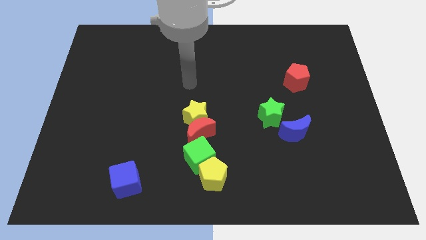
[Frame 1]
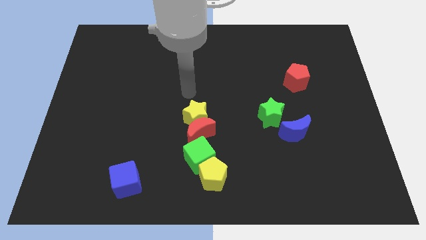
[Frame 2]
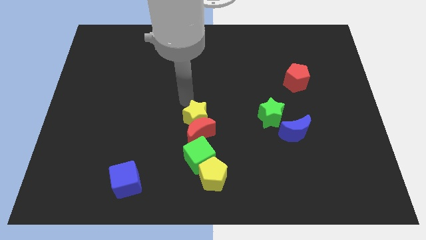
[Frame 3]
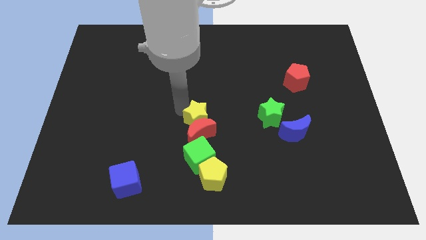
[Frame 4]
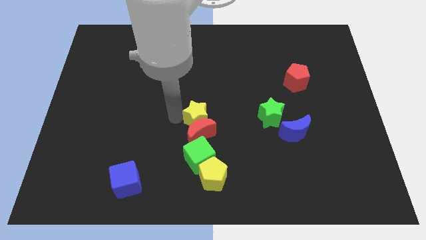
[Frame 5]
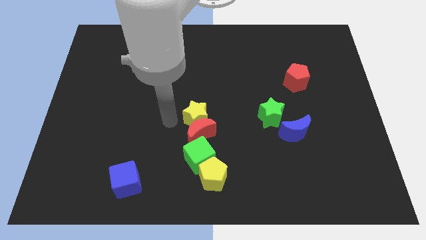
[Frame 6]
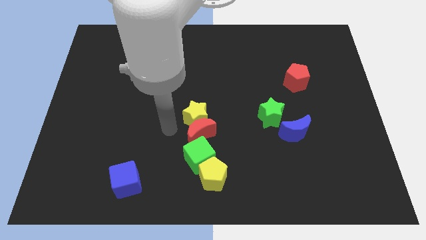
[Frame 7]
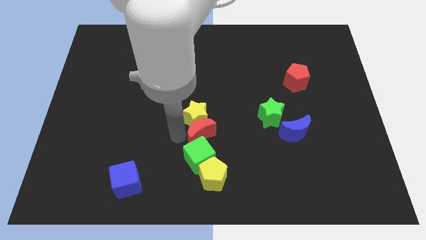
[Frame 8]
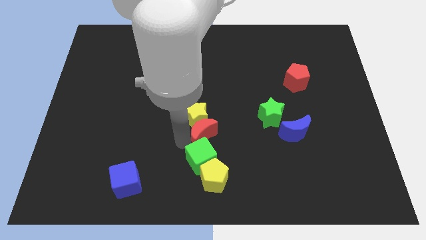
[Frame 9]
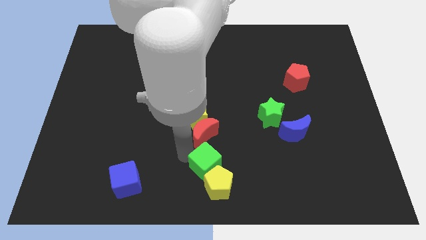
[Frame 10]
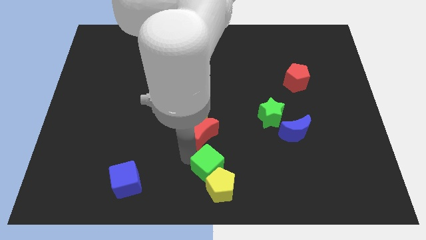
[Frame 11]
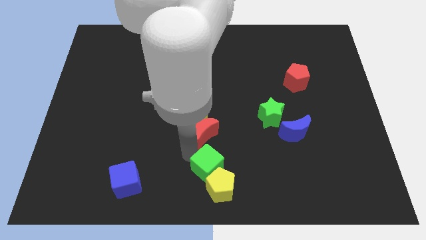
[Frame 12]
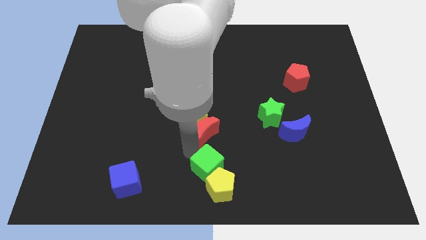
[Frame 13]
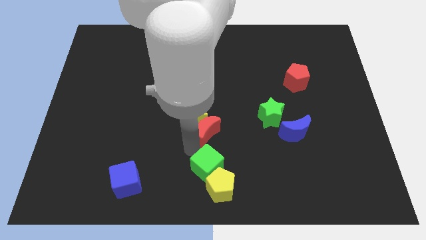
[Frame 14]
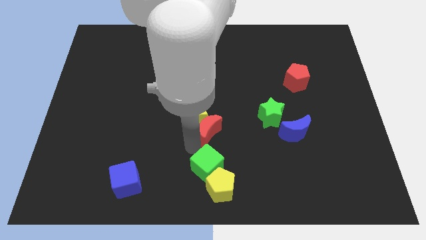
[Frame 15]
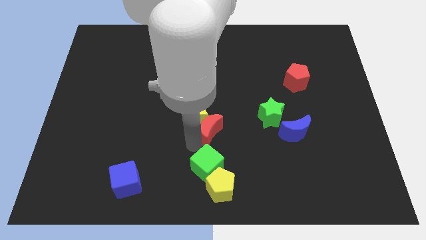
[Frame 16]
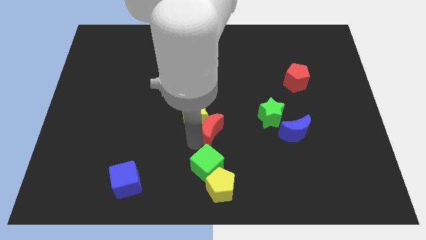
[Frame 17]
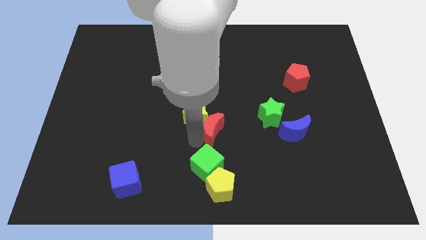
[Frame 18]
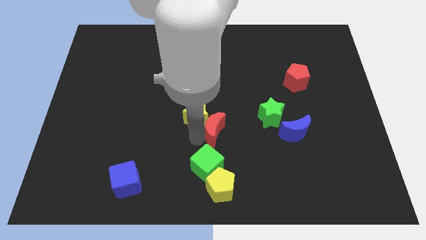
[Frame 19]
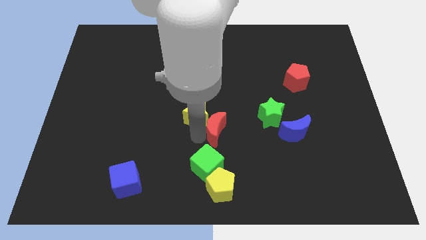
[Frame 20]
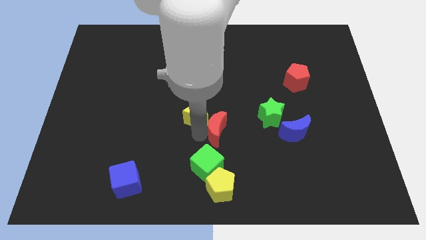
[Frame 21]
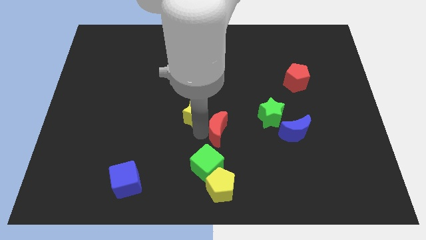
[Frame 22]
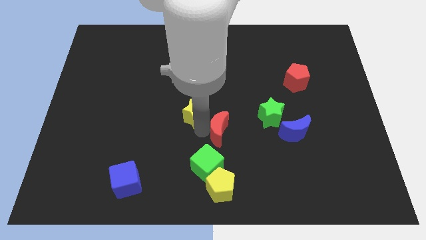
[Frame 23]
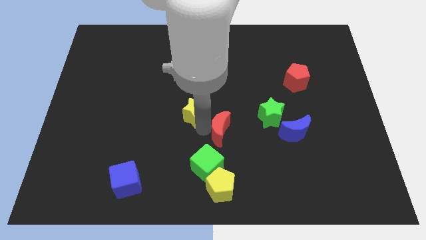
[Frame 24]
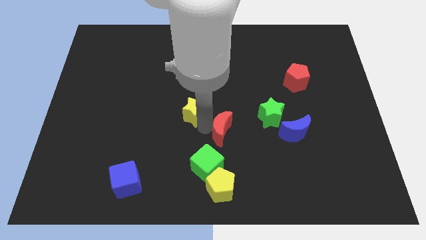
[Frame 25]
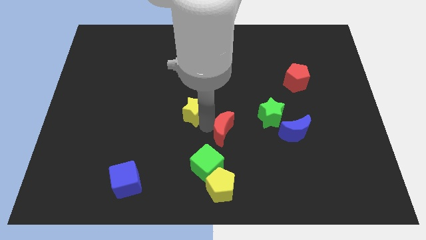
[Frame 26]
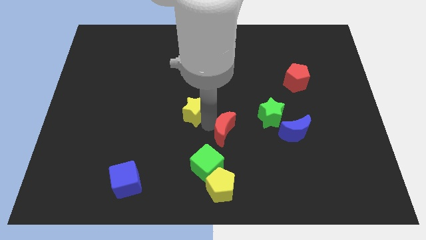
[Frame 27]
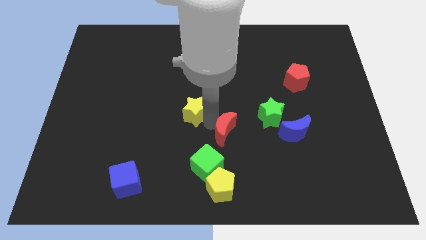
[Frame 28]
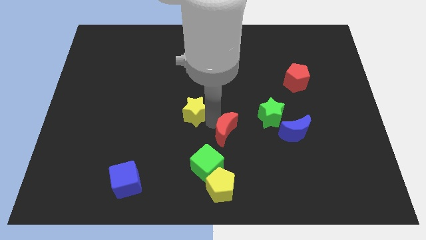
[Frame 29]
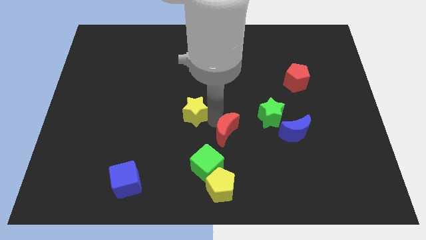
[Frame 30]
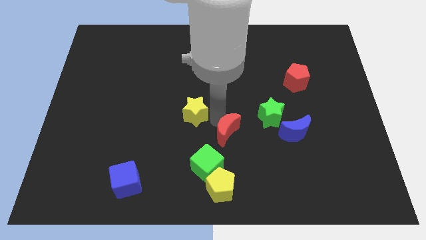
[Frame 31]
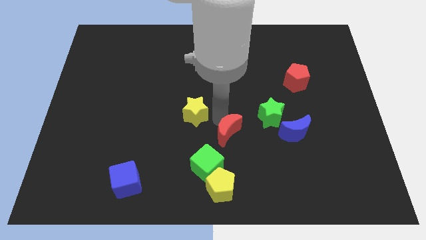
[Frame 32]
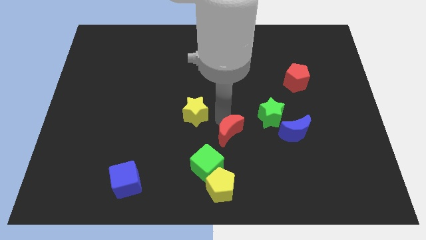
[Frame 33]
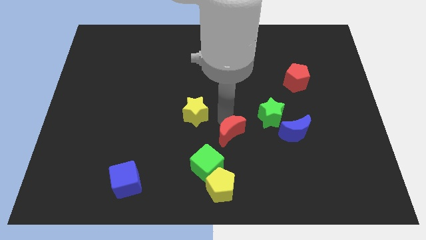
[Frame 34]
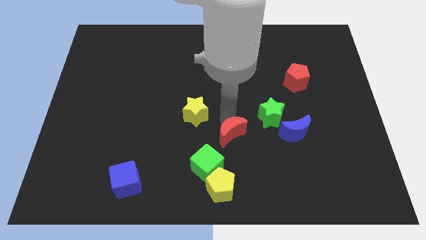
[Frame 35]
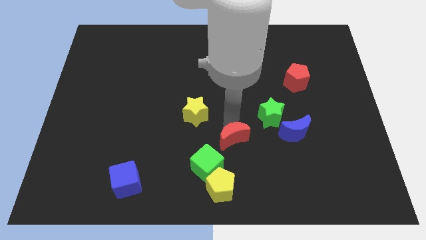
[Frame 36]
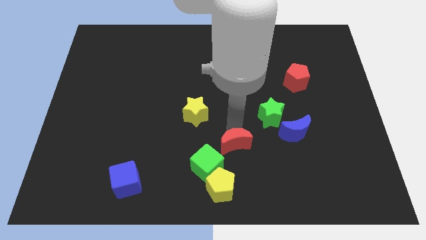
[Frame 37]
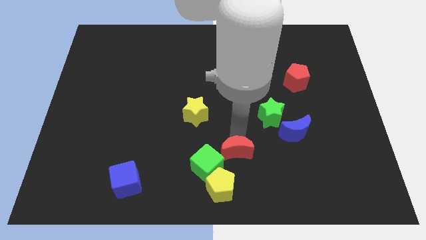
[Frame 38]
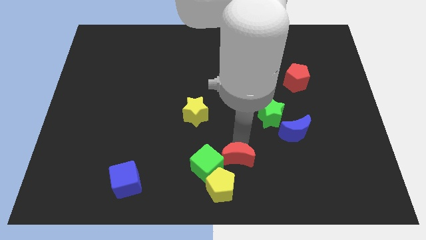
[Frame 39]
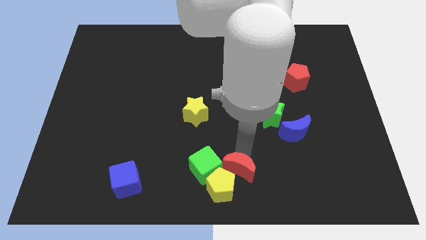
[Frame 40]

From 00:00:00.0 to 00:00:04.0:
move the red moon away from the yellow star and green cube

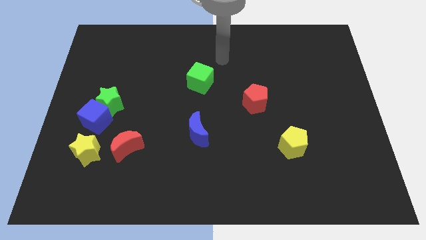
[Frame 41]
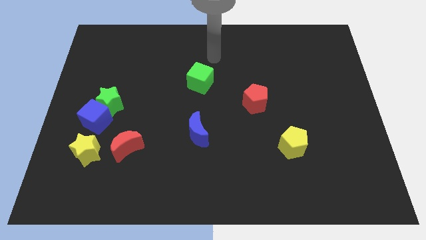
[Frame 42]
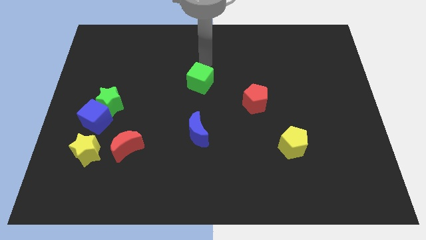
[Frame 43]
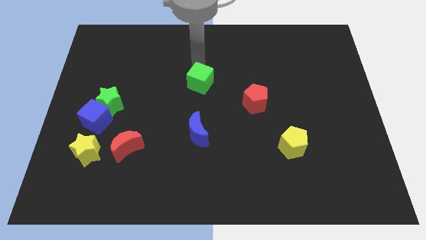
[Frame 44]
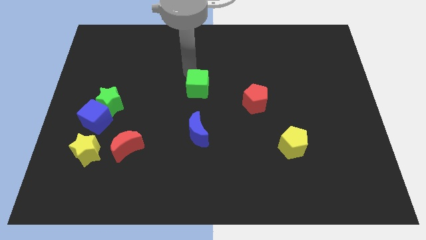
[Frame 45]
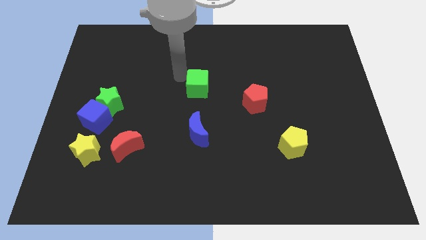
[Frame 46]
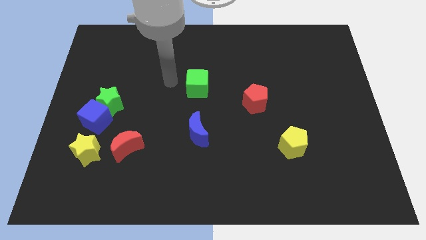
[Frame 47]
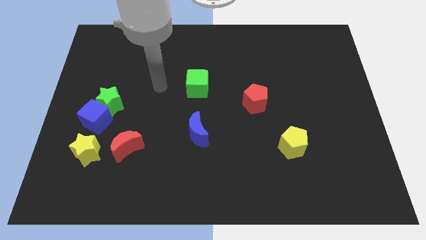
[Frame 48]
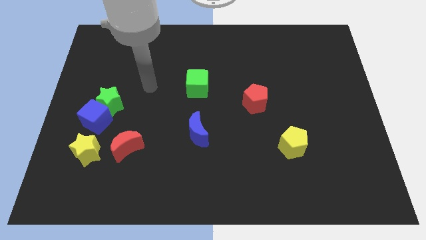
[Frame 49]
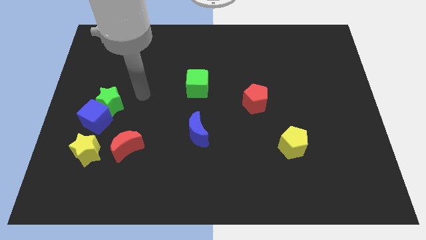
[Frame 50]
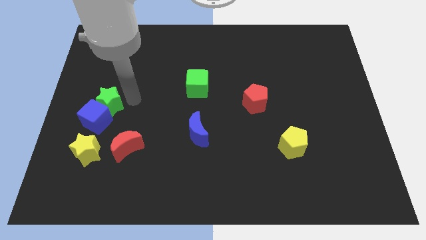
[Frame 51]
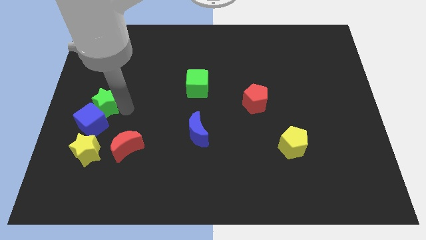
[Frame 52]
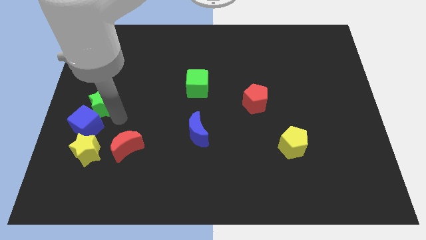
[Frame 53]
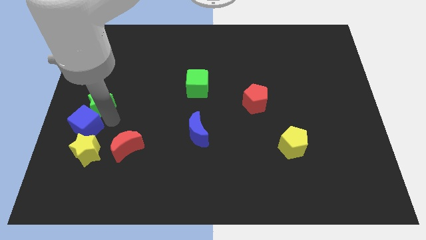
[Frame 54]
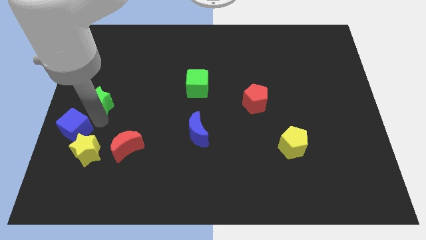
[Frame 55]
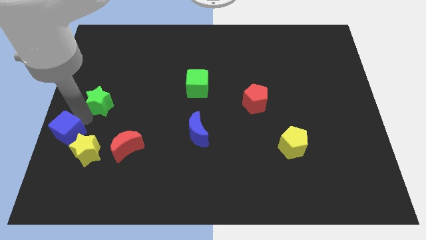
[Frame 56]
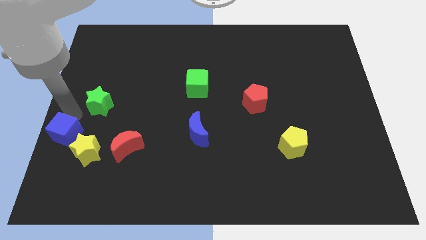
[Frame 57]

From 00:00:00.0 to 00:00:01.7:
separate the green star from the blue cube

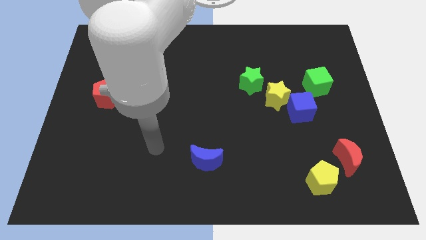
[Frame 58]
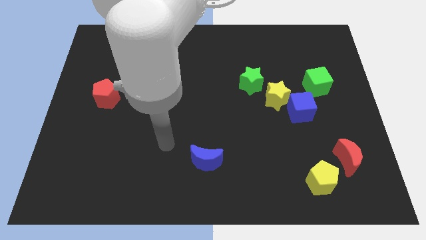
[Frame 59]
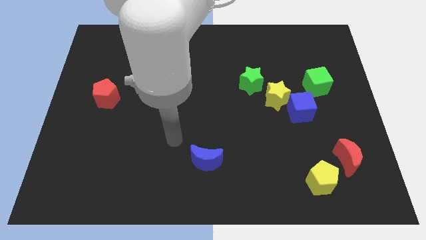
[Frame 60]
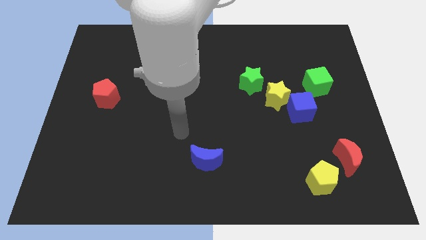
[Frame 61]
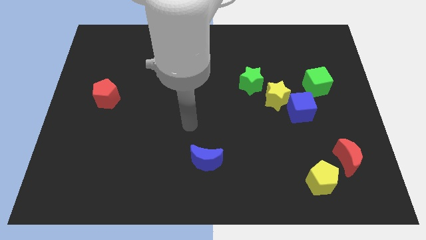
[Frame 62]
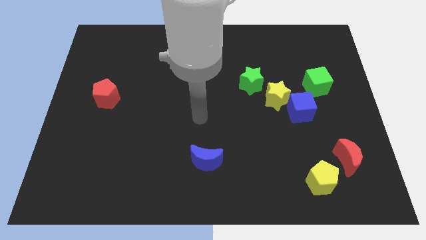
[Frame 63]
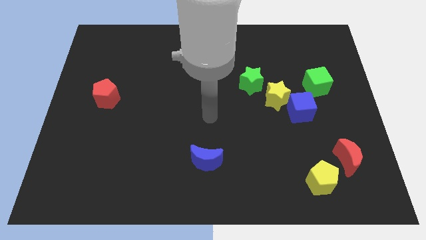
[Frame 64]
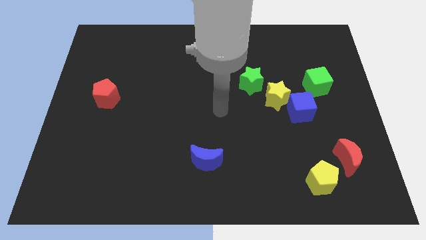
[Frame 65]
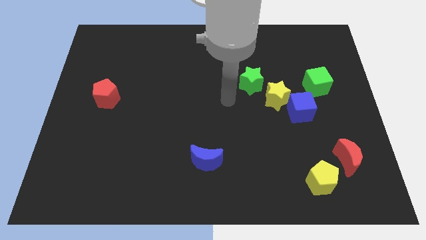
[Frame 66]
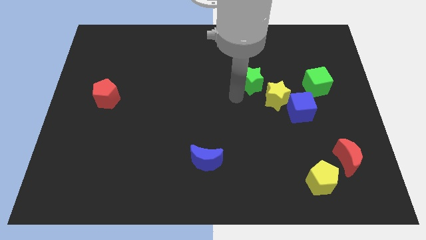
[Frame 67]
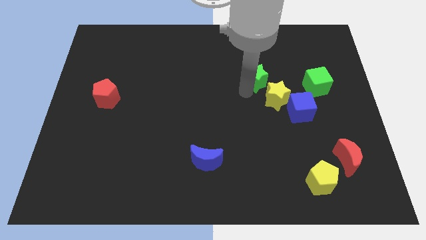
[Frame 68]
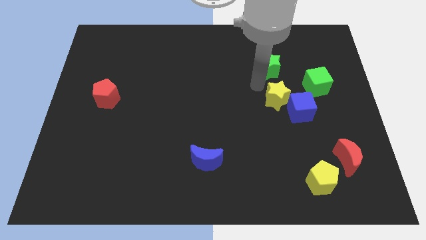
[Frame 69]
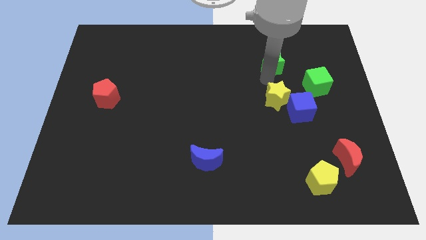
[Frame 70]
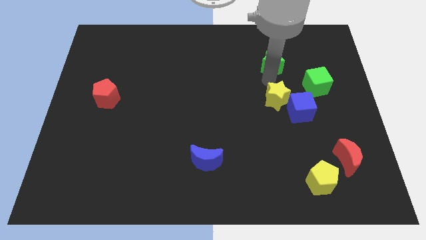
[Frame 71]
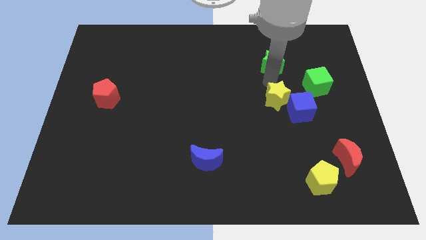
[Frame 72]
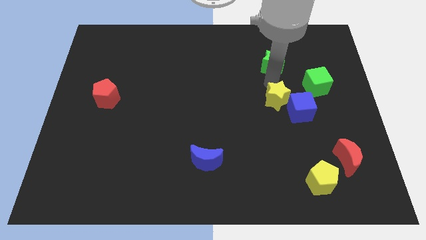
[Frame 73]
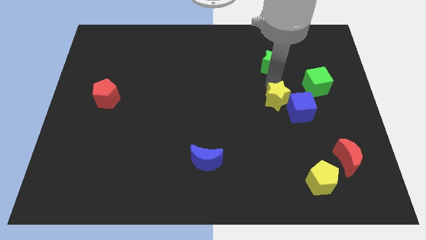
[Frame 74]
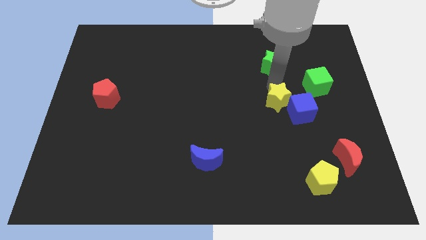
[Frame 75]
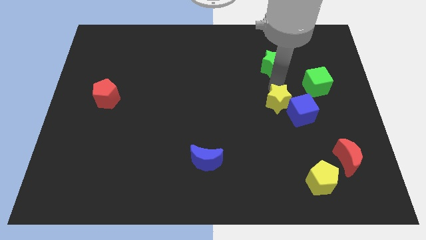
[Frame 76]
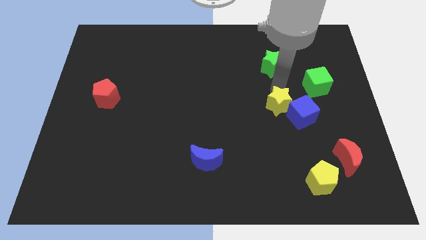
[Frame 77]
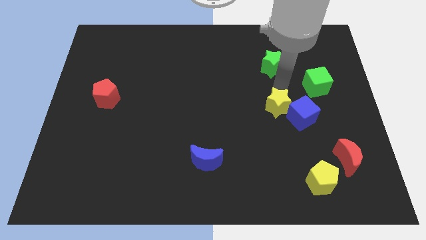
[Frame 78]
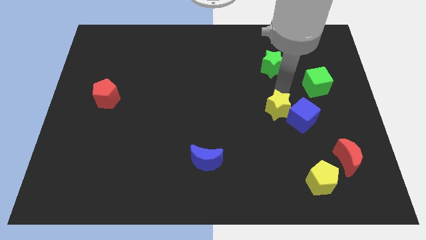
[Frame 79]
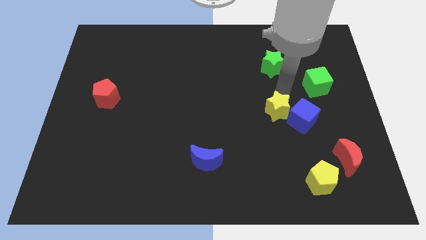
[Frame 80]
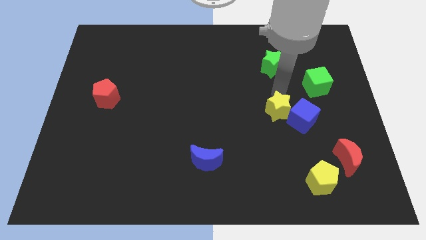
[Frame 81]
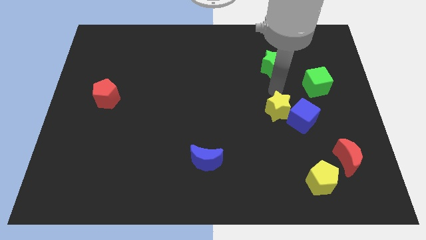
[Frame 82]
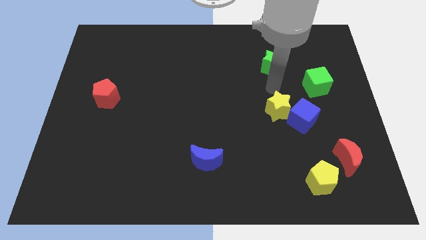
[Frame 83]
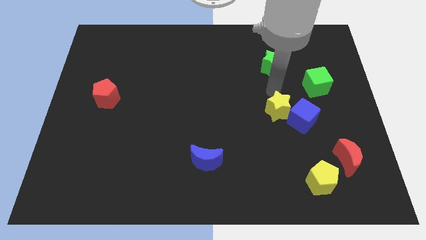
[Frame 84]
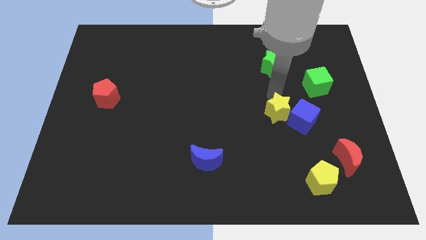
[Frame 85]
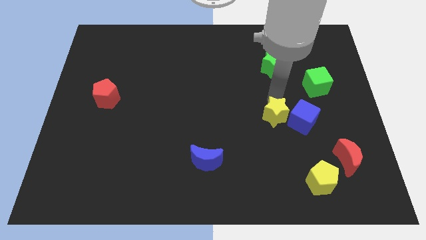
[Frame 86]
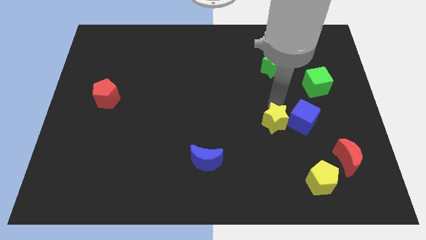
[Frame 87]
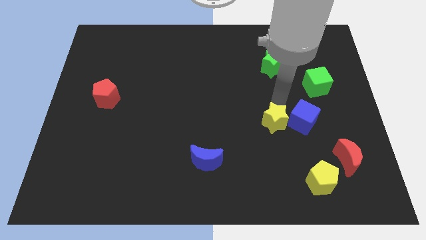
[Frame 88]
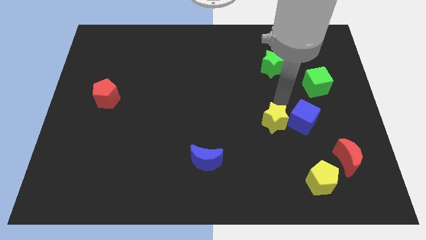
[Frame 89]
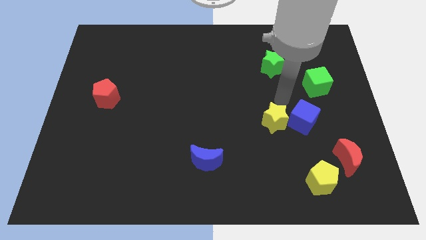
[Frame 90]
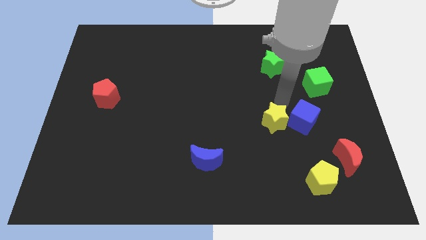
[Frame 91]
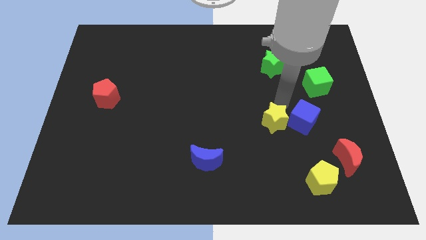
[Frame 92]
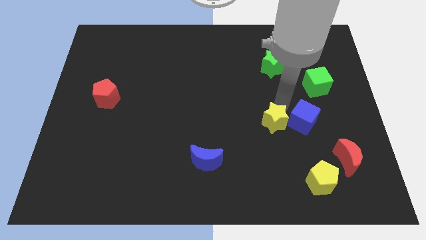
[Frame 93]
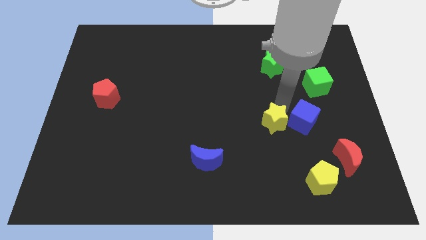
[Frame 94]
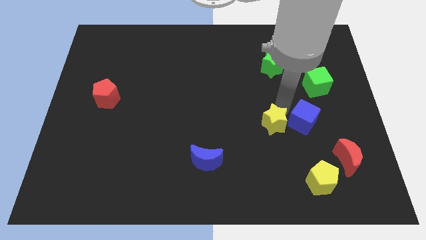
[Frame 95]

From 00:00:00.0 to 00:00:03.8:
pull the yellow star apart from the blue cube and green star
